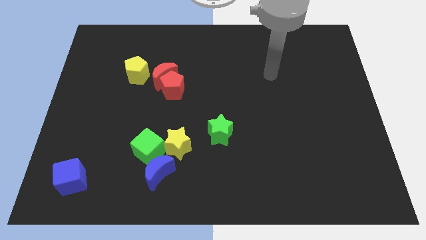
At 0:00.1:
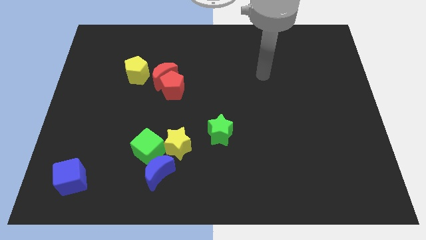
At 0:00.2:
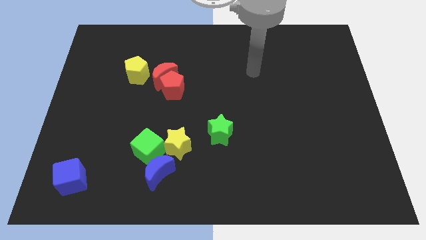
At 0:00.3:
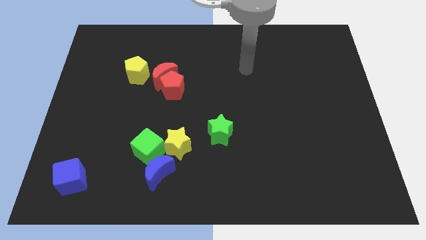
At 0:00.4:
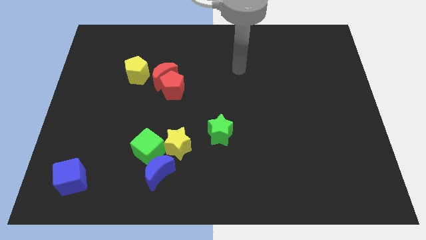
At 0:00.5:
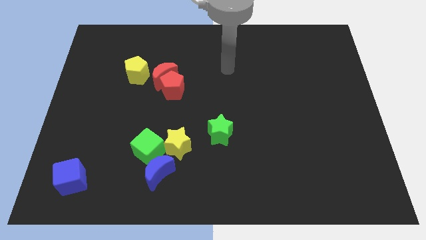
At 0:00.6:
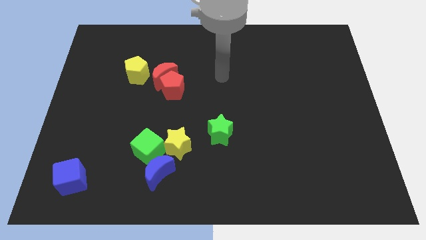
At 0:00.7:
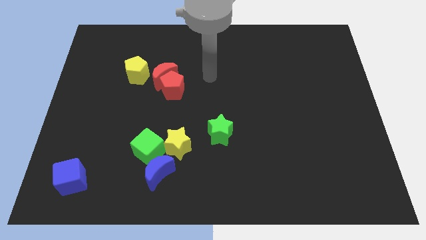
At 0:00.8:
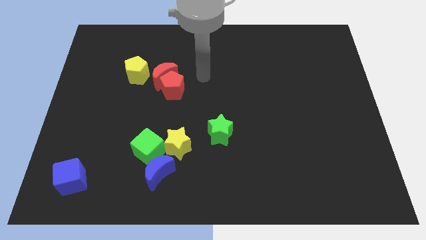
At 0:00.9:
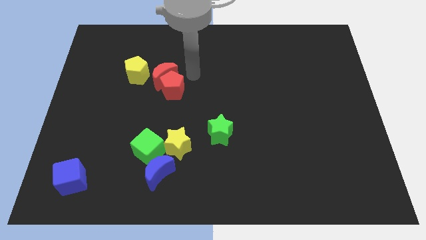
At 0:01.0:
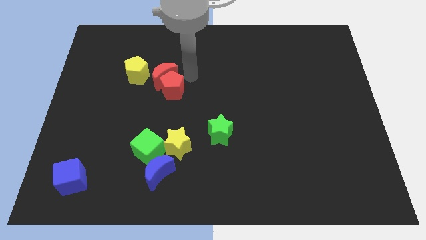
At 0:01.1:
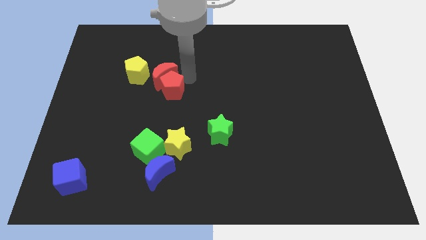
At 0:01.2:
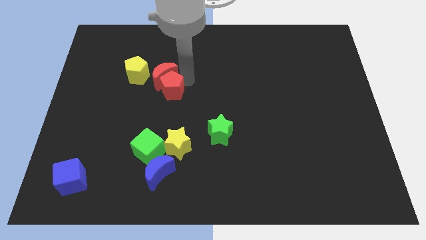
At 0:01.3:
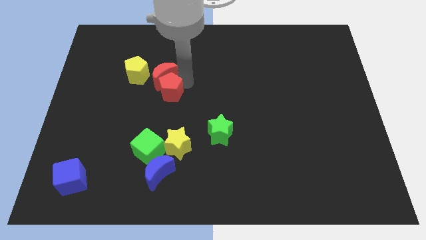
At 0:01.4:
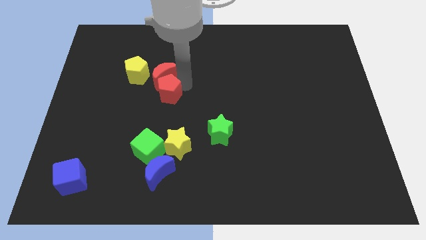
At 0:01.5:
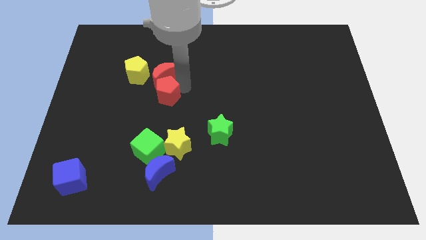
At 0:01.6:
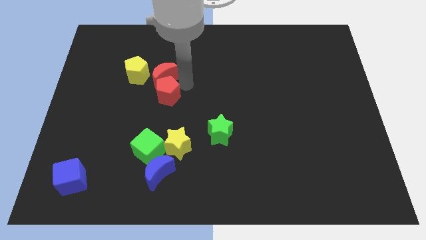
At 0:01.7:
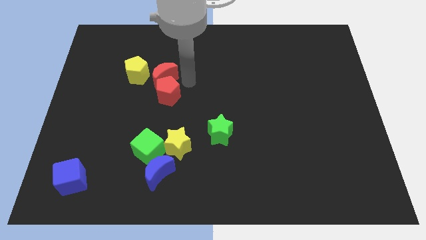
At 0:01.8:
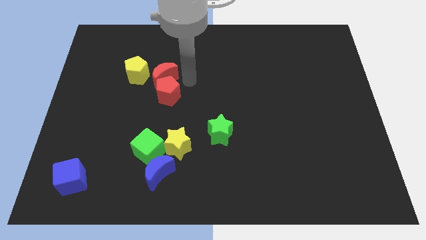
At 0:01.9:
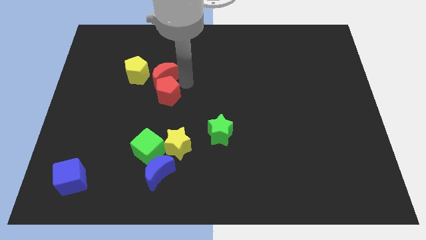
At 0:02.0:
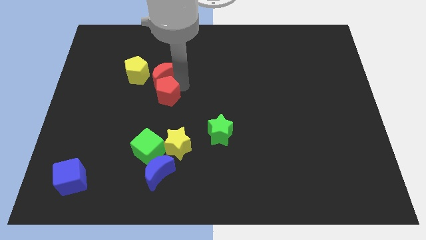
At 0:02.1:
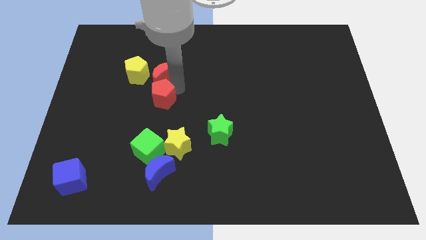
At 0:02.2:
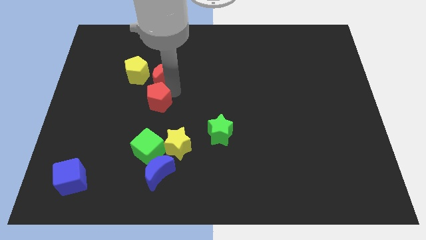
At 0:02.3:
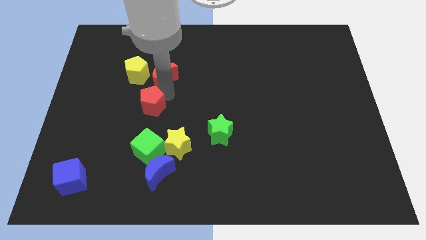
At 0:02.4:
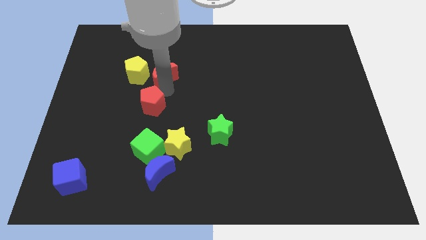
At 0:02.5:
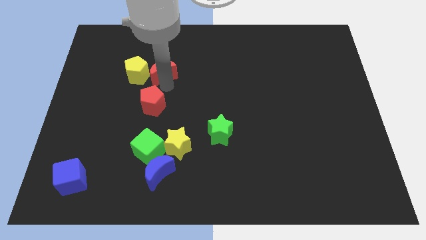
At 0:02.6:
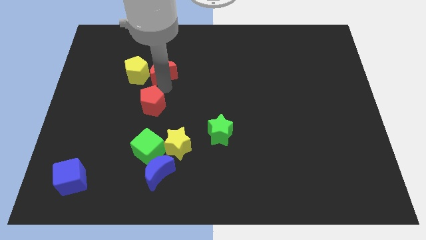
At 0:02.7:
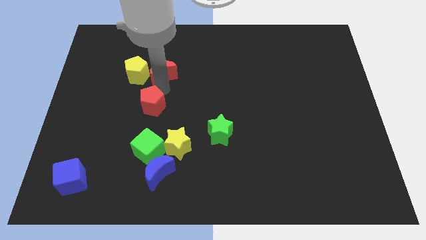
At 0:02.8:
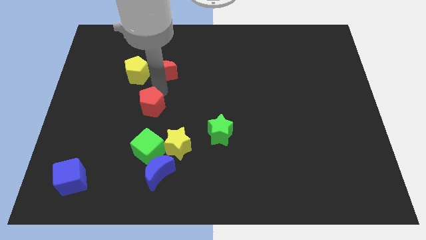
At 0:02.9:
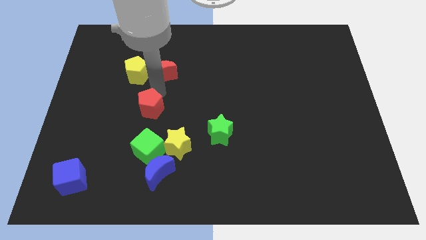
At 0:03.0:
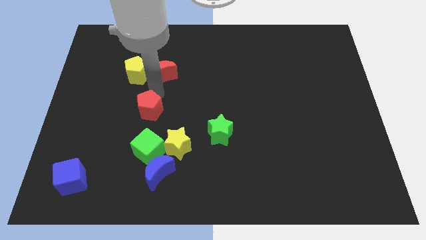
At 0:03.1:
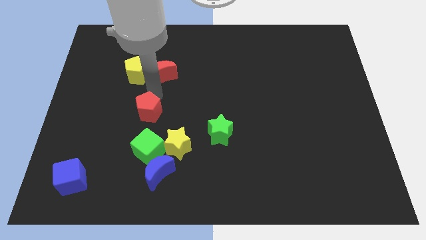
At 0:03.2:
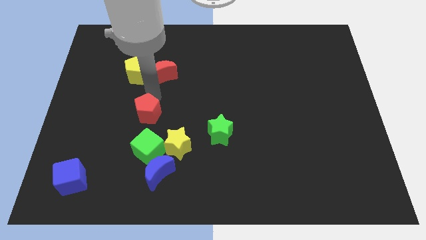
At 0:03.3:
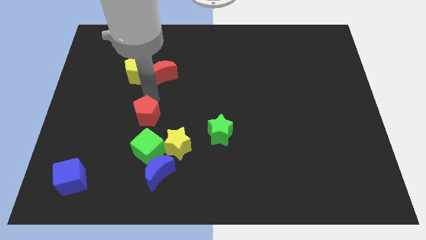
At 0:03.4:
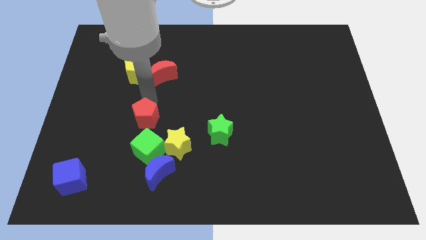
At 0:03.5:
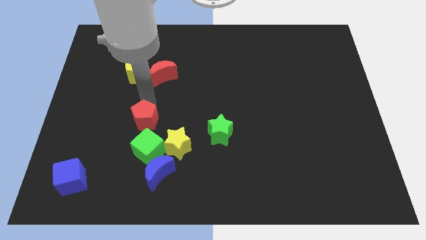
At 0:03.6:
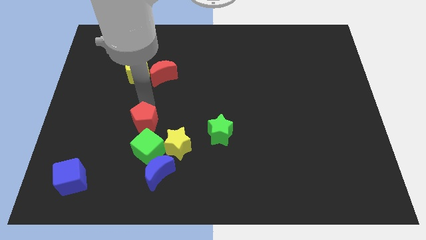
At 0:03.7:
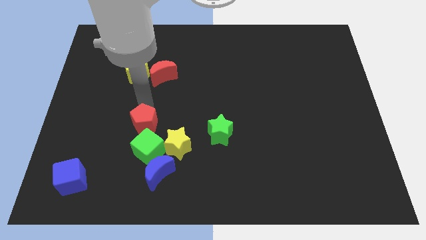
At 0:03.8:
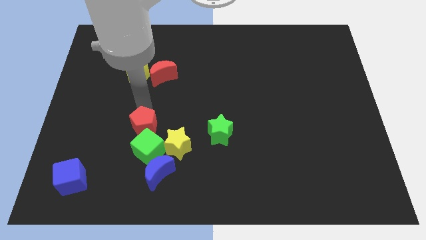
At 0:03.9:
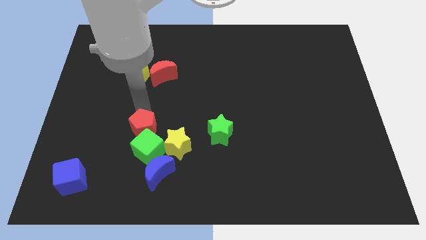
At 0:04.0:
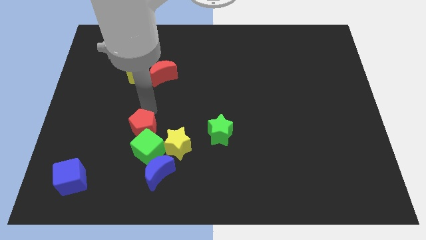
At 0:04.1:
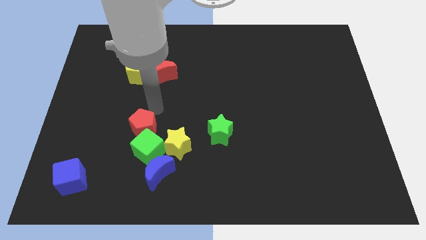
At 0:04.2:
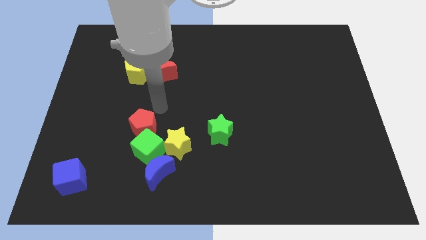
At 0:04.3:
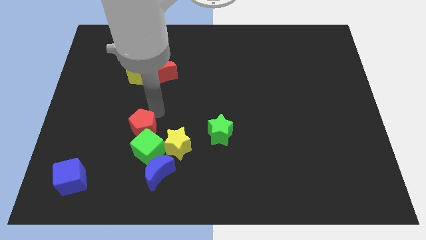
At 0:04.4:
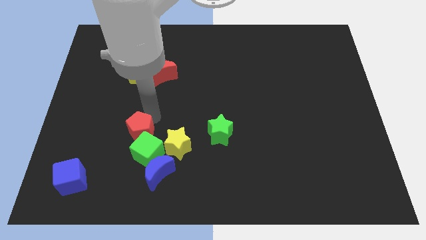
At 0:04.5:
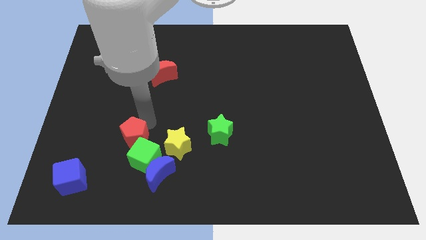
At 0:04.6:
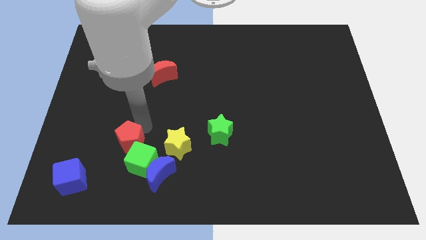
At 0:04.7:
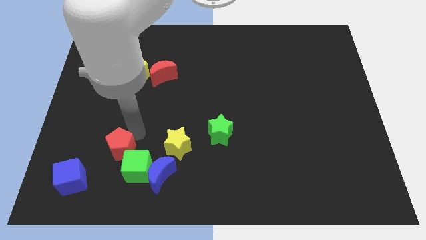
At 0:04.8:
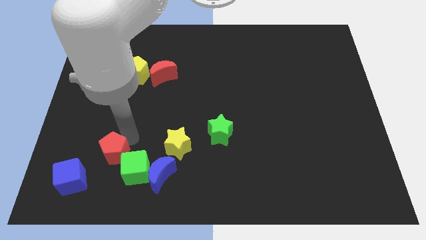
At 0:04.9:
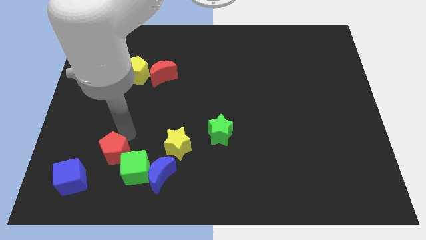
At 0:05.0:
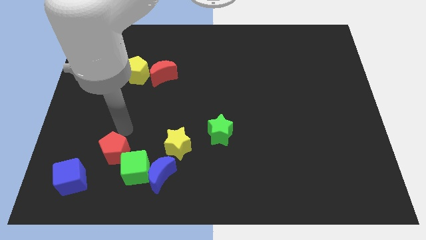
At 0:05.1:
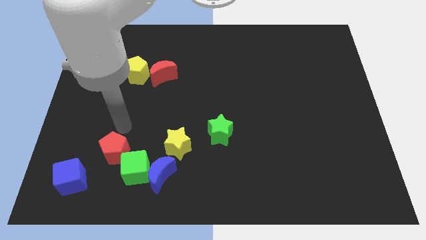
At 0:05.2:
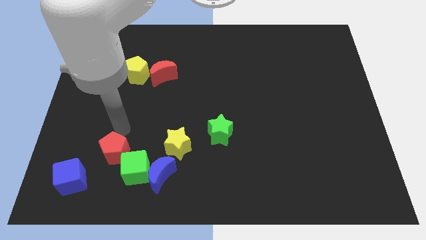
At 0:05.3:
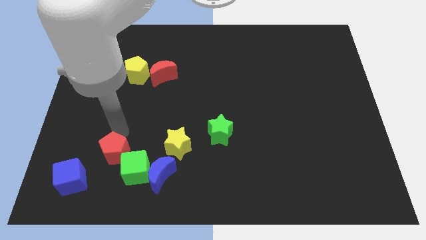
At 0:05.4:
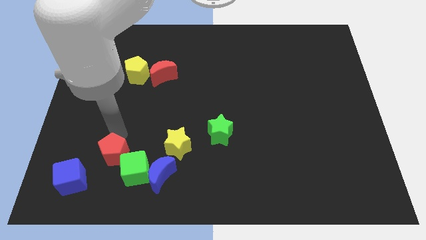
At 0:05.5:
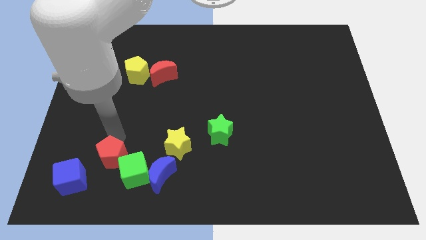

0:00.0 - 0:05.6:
push the red pentagon to the left side of the blue moon

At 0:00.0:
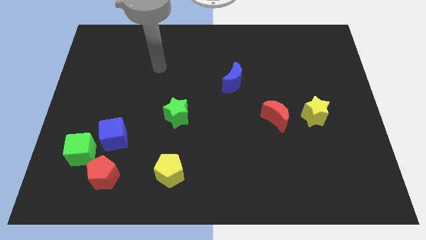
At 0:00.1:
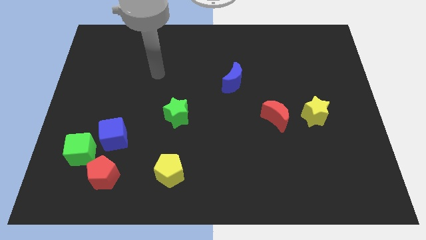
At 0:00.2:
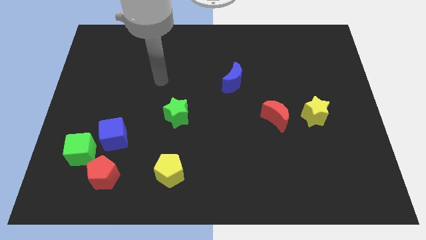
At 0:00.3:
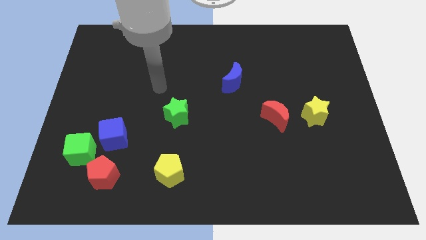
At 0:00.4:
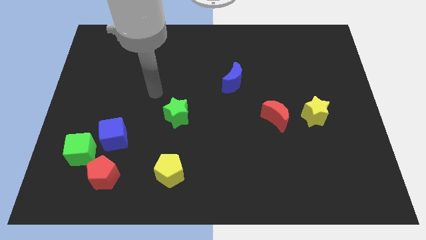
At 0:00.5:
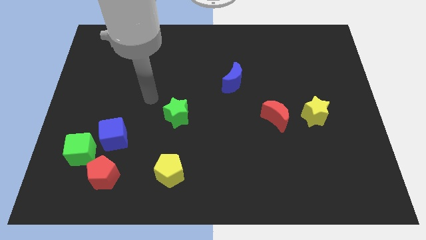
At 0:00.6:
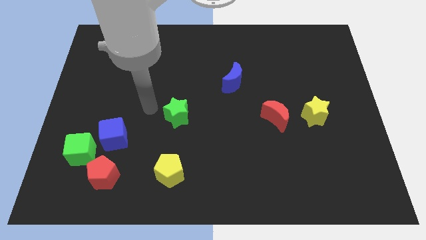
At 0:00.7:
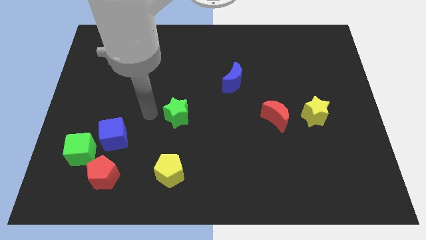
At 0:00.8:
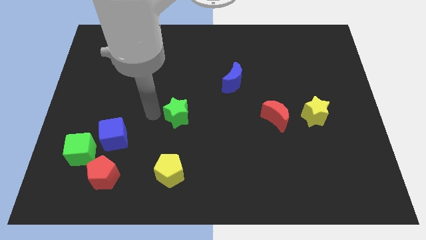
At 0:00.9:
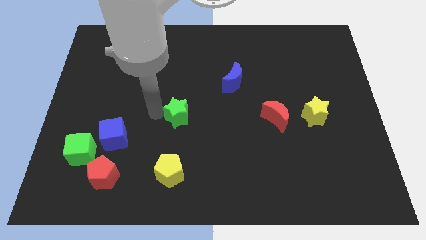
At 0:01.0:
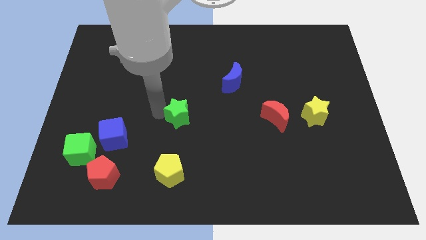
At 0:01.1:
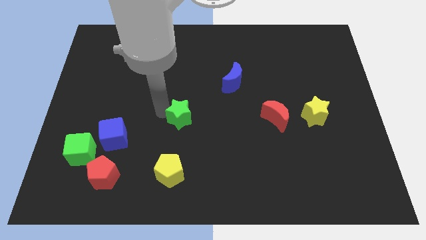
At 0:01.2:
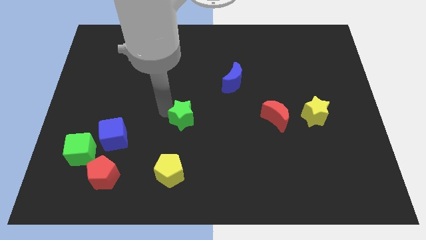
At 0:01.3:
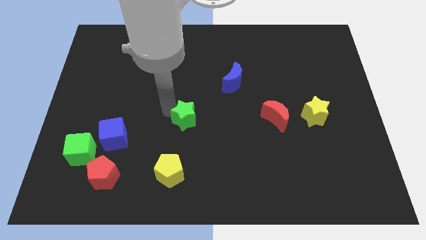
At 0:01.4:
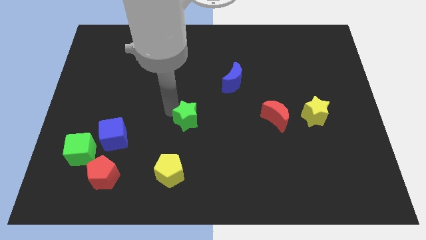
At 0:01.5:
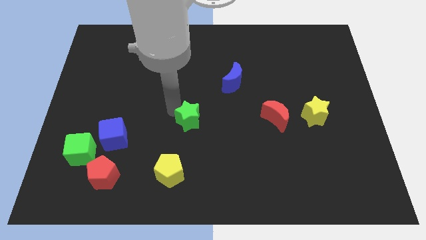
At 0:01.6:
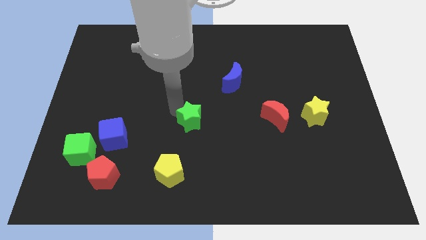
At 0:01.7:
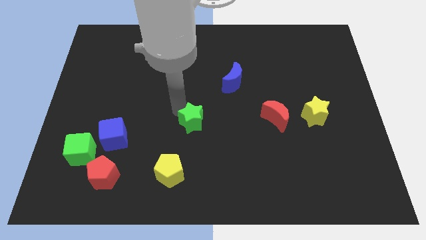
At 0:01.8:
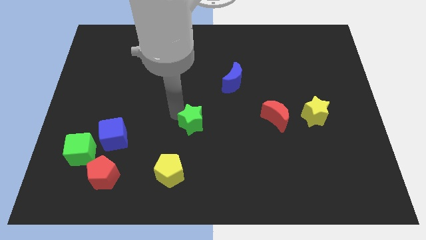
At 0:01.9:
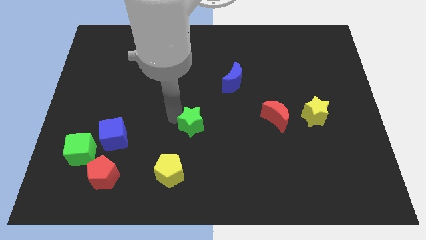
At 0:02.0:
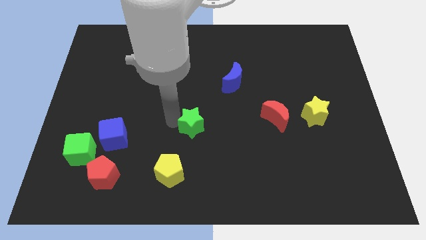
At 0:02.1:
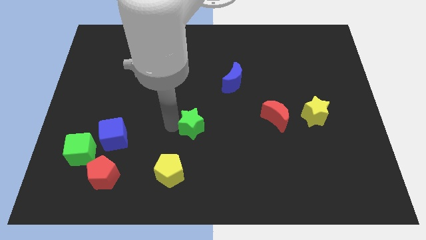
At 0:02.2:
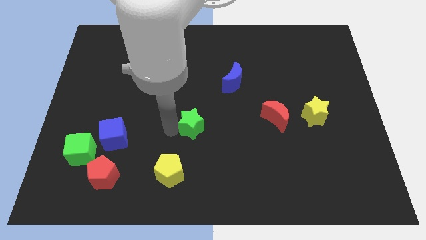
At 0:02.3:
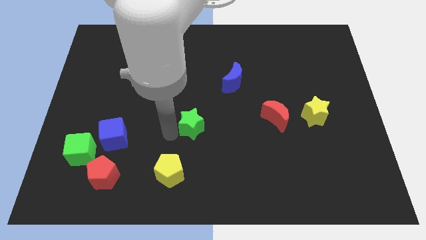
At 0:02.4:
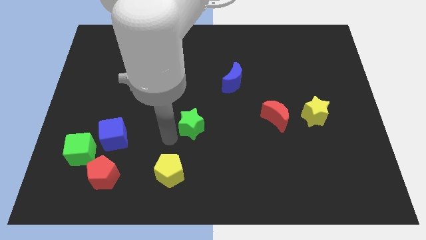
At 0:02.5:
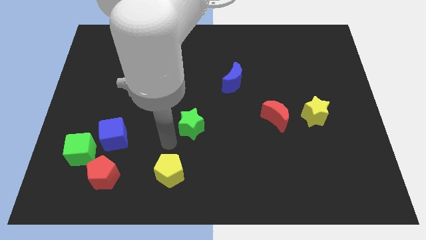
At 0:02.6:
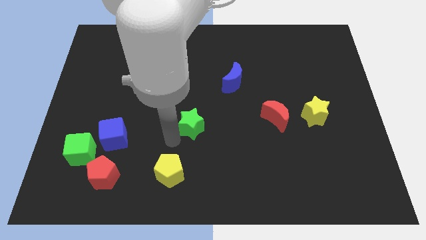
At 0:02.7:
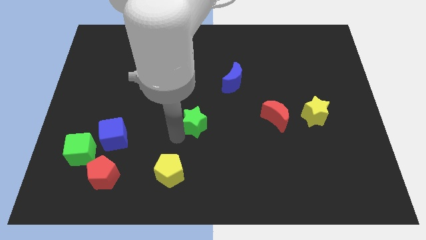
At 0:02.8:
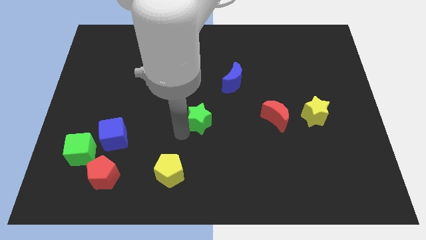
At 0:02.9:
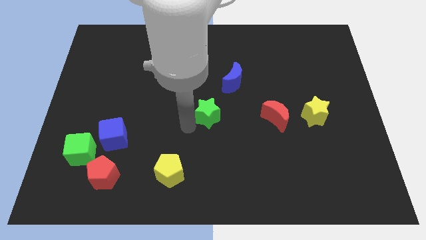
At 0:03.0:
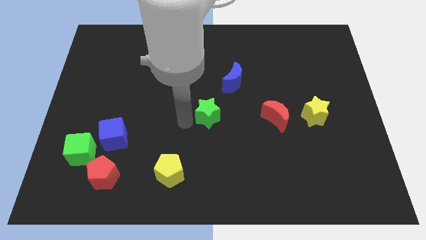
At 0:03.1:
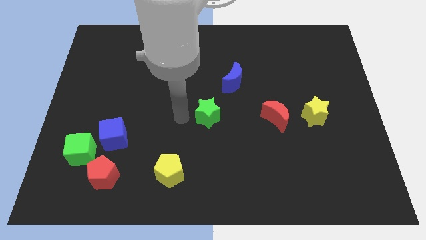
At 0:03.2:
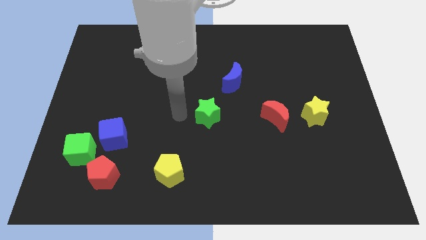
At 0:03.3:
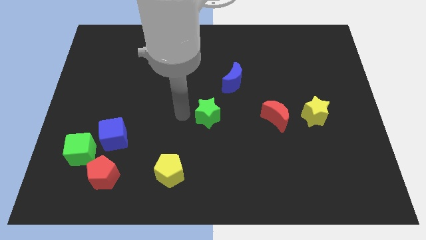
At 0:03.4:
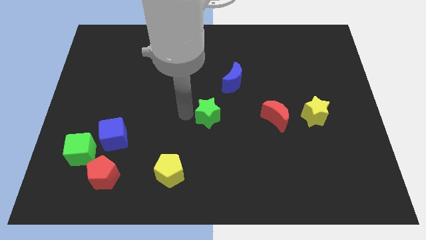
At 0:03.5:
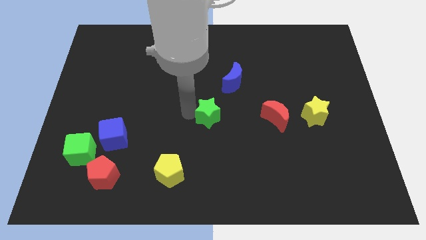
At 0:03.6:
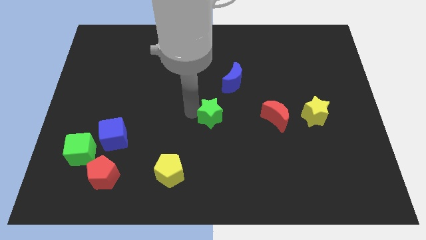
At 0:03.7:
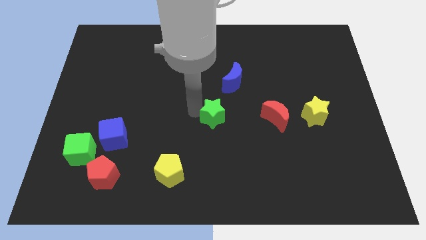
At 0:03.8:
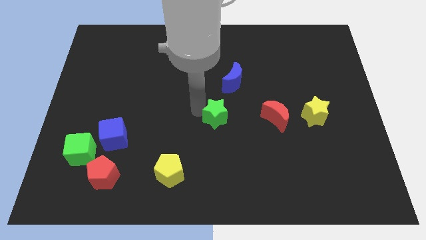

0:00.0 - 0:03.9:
put the green star to the bottom of the blue moon
